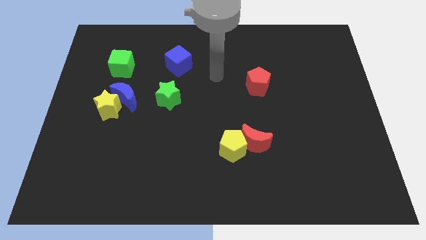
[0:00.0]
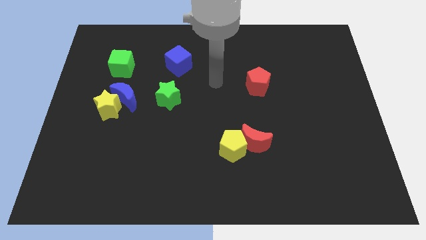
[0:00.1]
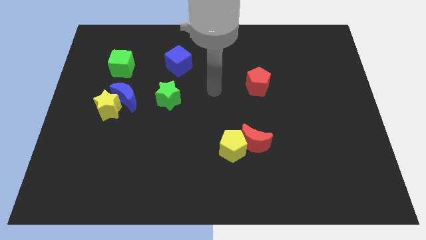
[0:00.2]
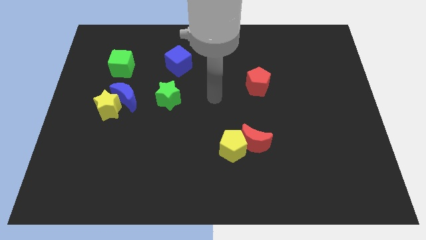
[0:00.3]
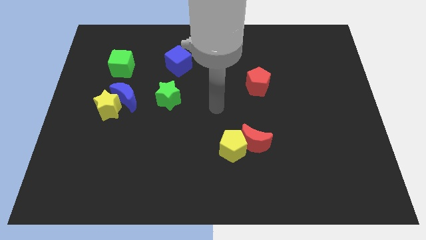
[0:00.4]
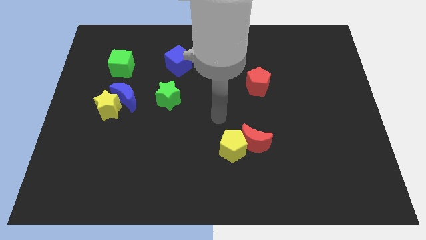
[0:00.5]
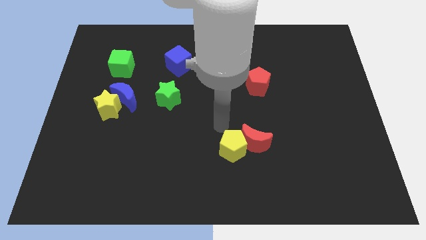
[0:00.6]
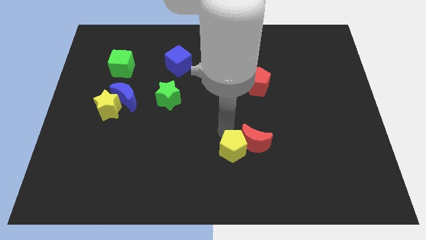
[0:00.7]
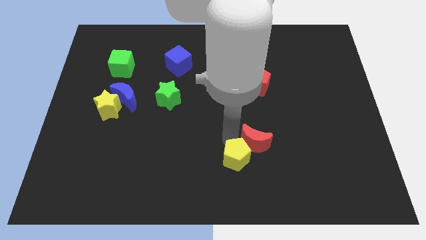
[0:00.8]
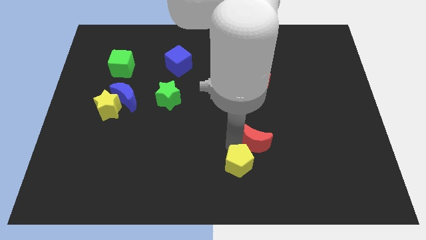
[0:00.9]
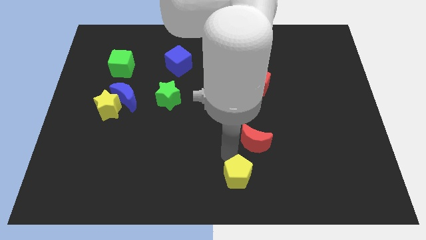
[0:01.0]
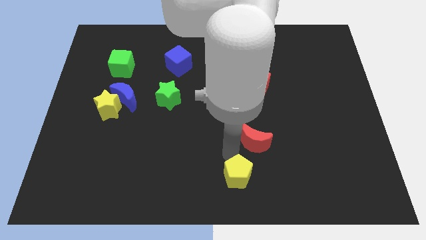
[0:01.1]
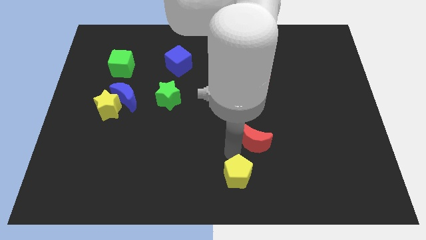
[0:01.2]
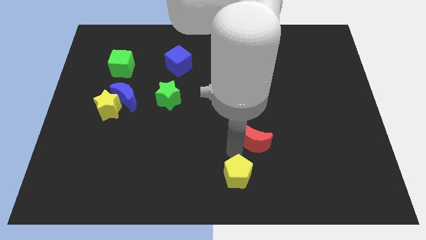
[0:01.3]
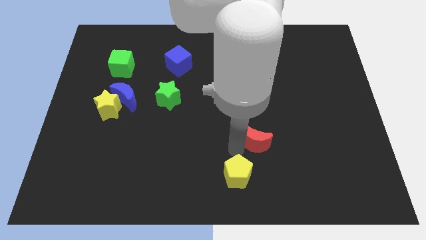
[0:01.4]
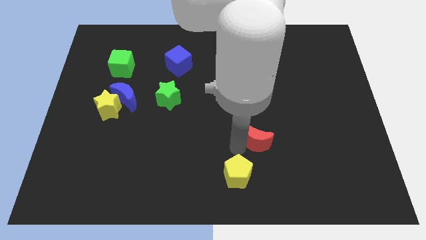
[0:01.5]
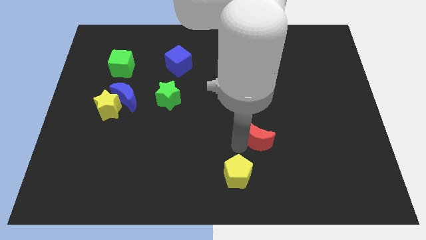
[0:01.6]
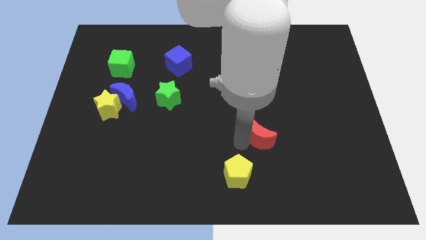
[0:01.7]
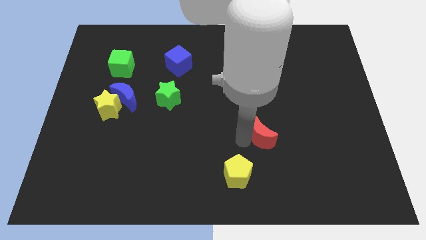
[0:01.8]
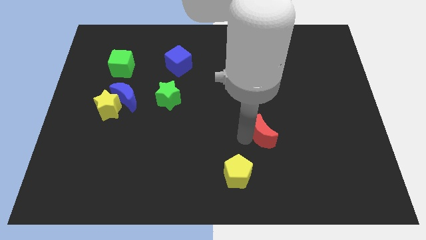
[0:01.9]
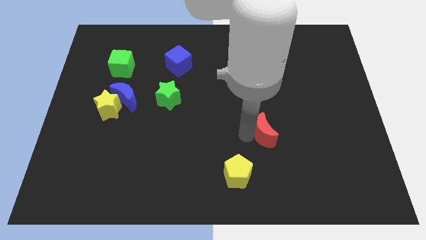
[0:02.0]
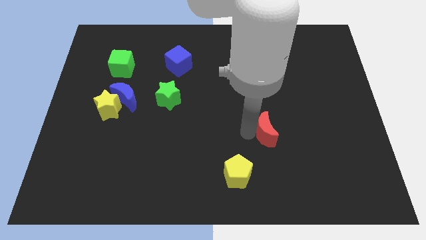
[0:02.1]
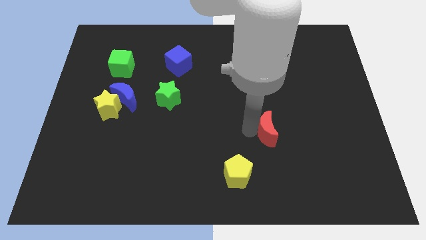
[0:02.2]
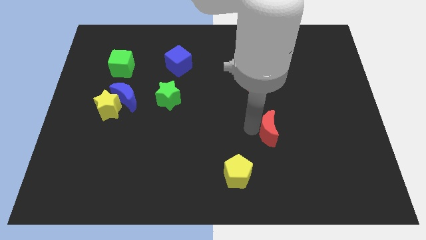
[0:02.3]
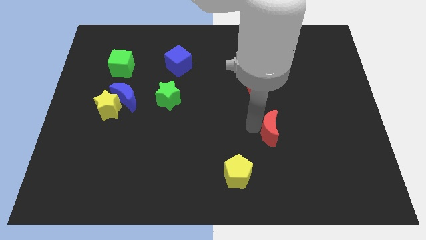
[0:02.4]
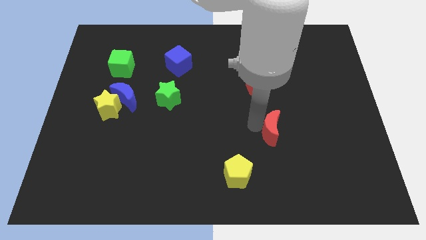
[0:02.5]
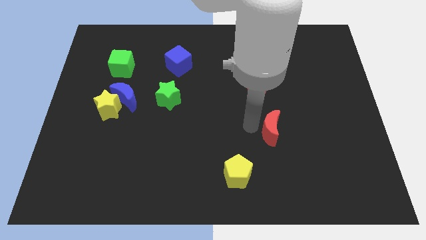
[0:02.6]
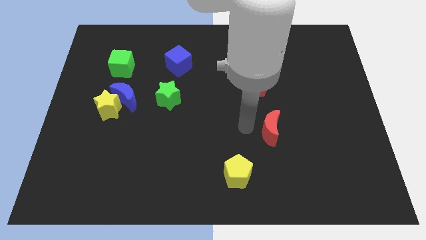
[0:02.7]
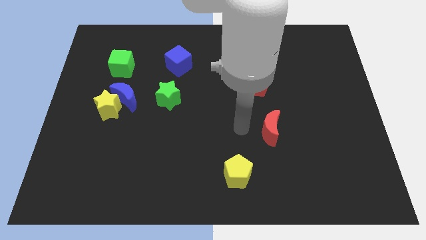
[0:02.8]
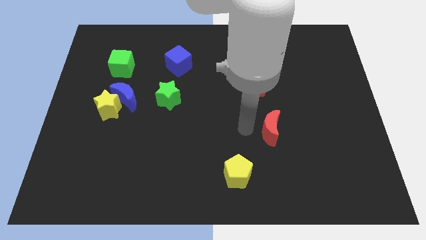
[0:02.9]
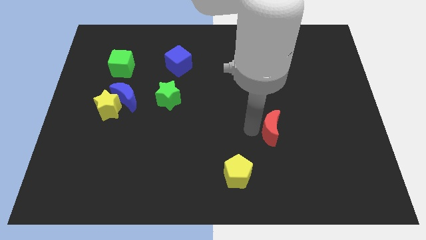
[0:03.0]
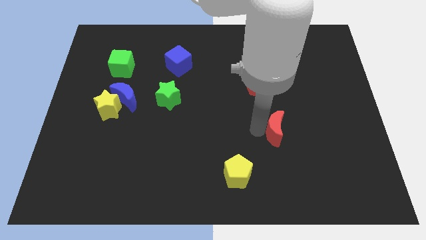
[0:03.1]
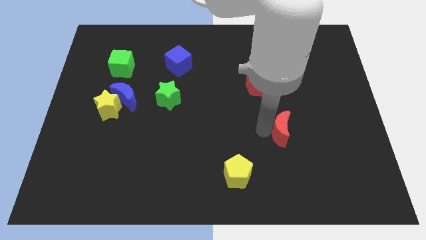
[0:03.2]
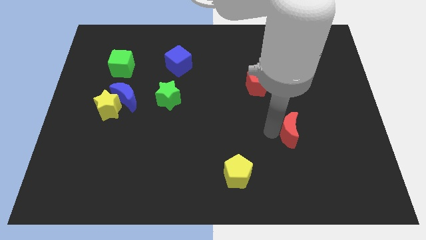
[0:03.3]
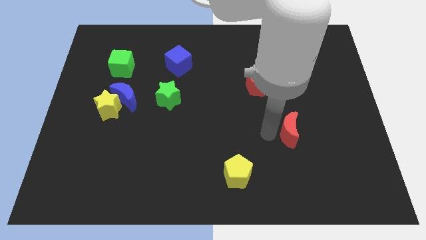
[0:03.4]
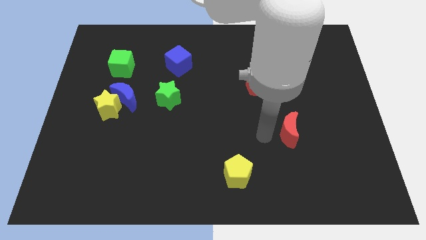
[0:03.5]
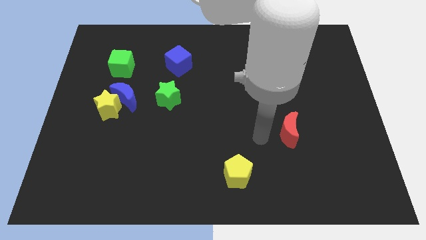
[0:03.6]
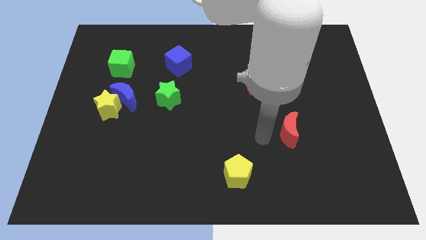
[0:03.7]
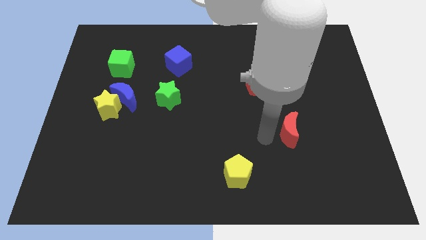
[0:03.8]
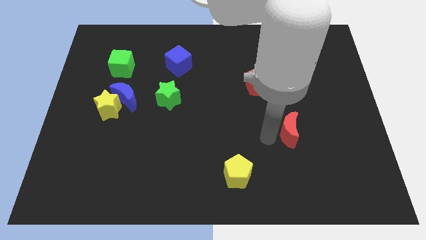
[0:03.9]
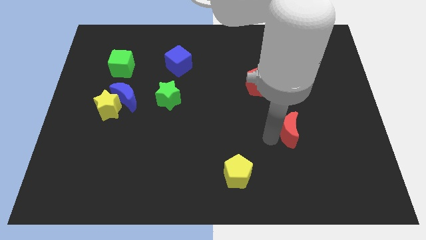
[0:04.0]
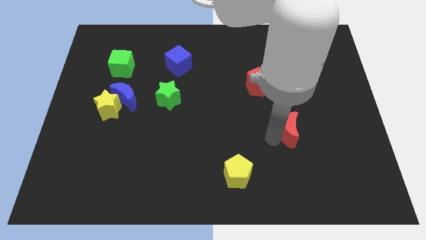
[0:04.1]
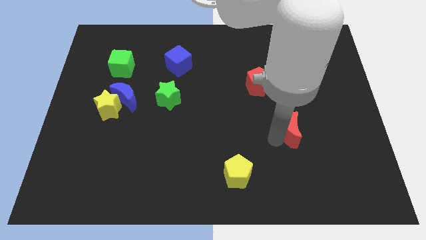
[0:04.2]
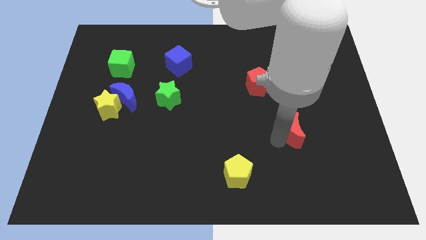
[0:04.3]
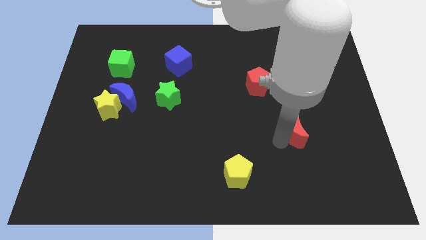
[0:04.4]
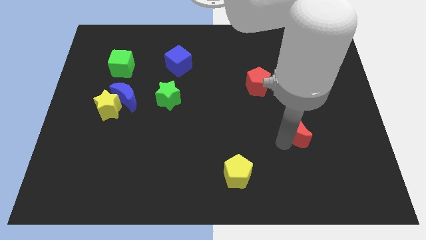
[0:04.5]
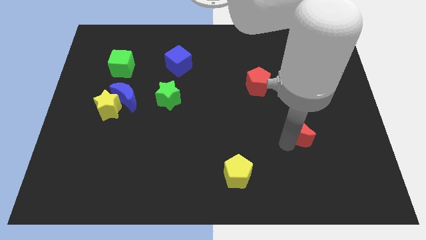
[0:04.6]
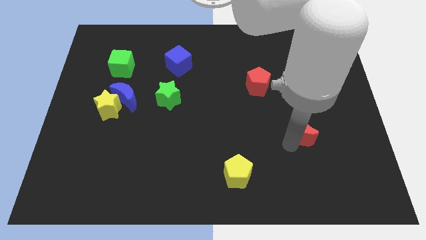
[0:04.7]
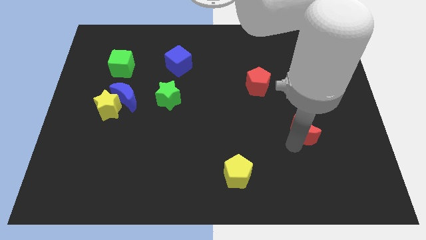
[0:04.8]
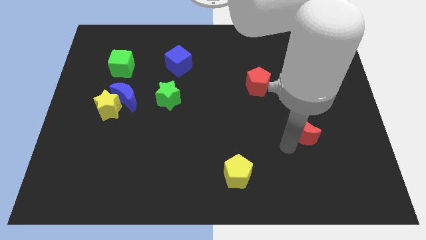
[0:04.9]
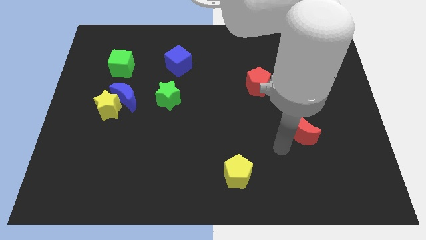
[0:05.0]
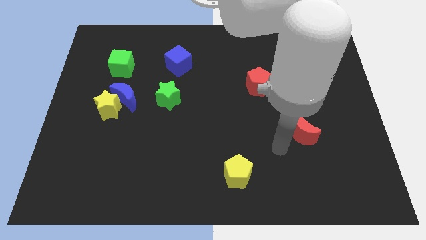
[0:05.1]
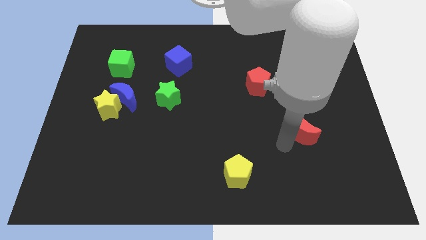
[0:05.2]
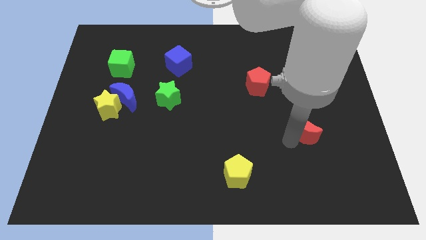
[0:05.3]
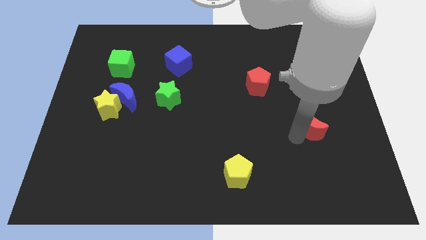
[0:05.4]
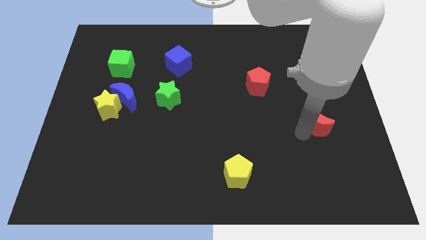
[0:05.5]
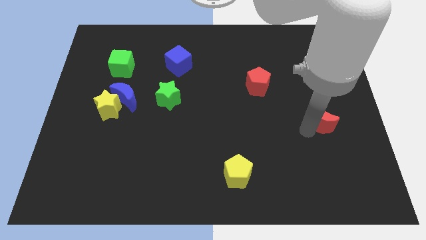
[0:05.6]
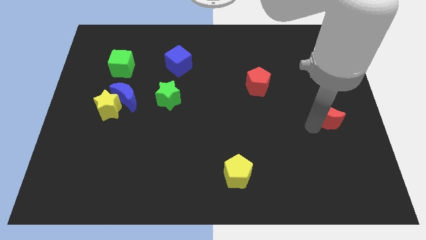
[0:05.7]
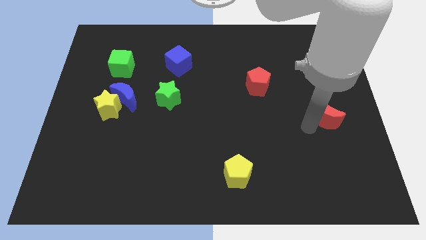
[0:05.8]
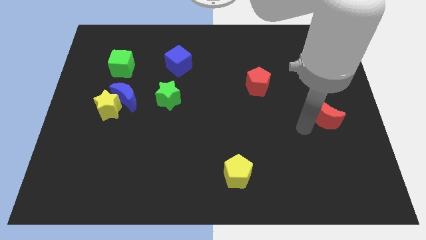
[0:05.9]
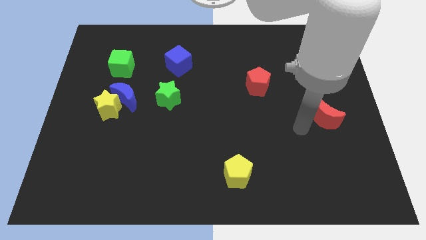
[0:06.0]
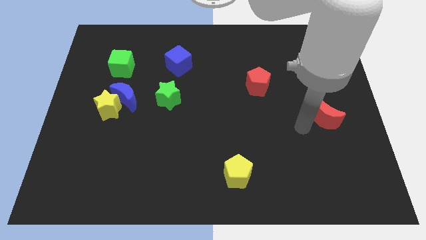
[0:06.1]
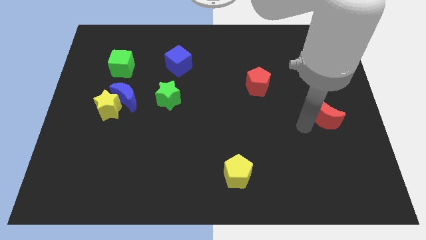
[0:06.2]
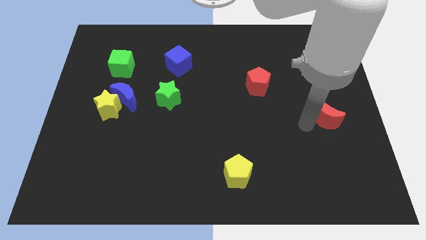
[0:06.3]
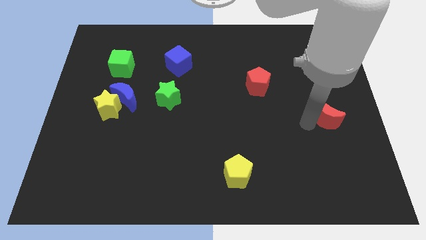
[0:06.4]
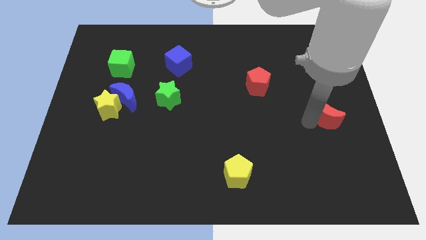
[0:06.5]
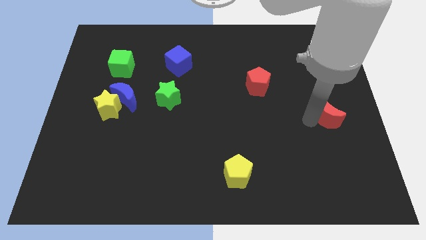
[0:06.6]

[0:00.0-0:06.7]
slide the red moon to the center right
